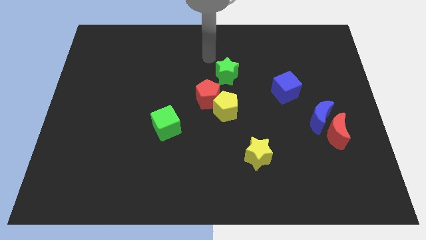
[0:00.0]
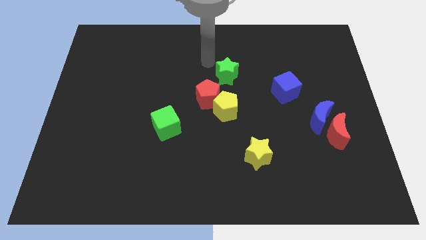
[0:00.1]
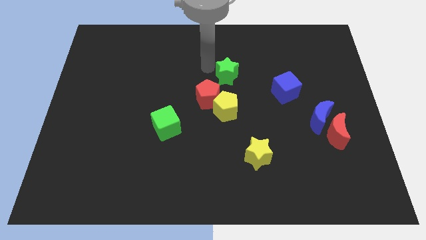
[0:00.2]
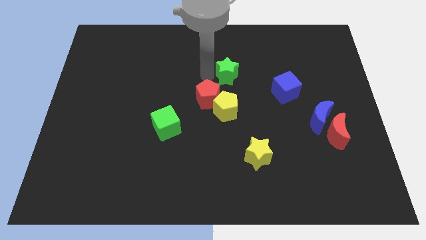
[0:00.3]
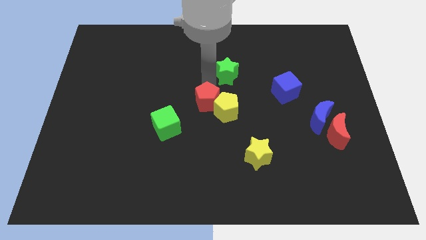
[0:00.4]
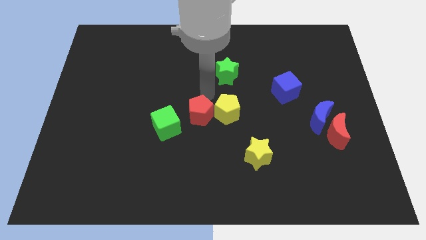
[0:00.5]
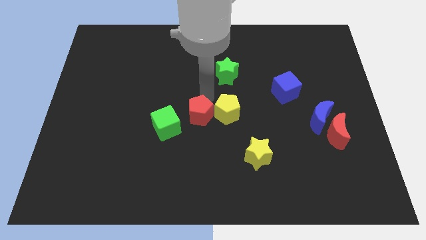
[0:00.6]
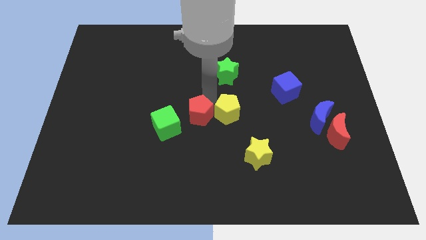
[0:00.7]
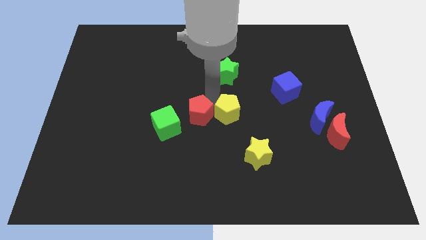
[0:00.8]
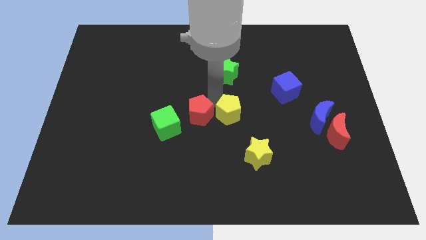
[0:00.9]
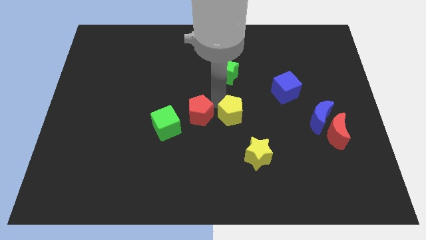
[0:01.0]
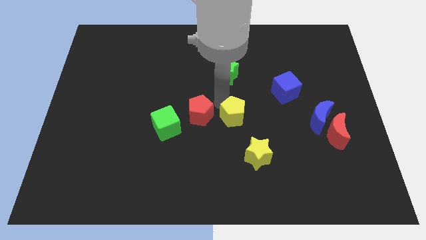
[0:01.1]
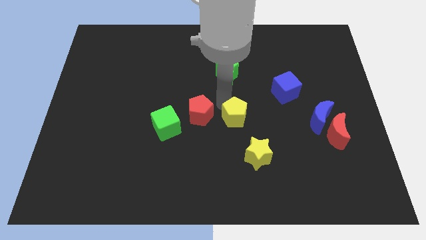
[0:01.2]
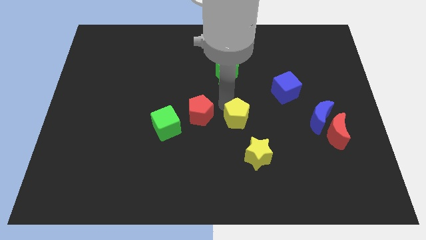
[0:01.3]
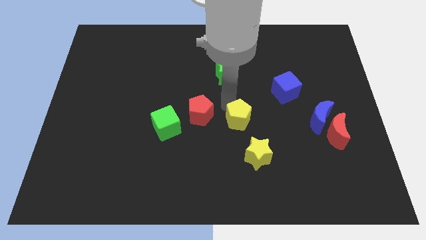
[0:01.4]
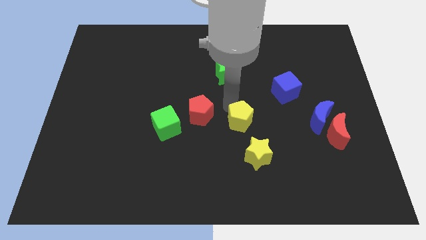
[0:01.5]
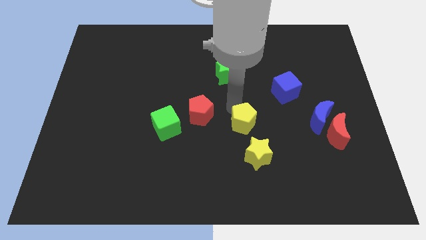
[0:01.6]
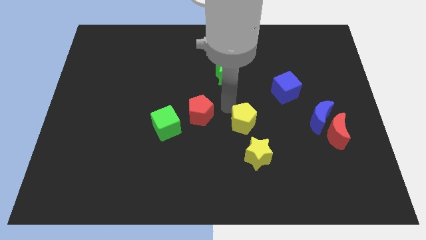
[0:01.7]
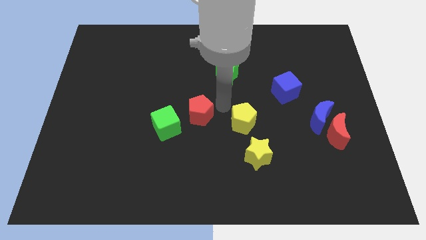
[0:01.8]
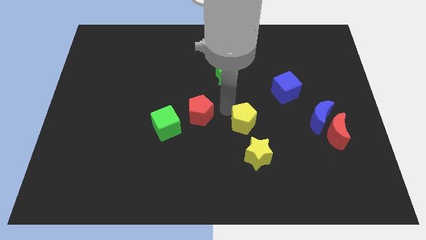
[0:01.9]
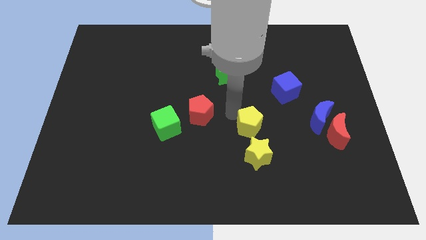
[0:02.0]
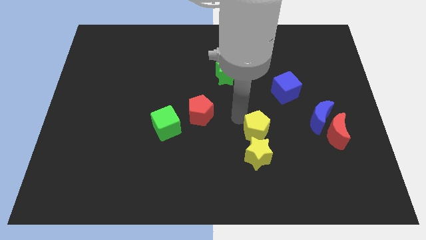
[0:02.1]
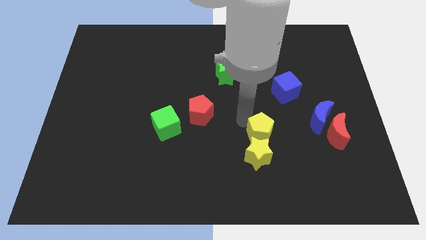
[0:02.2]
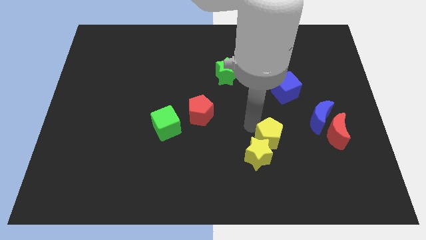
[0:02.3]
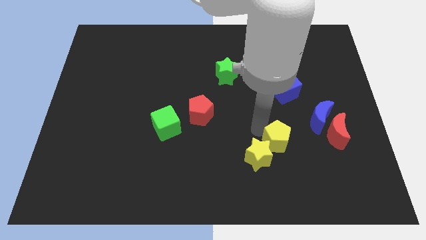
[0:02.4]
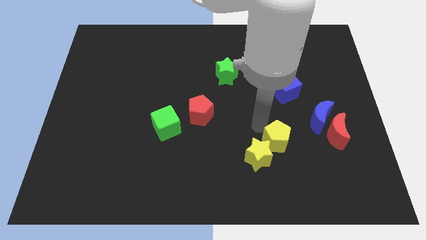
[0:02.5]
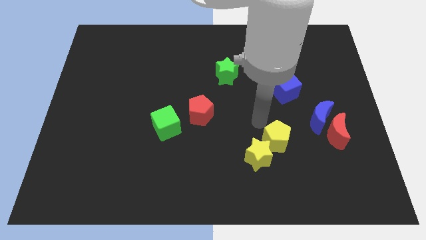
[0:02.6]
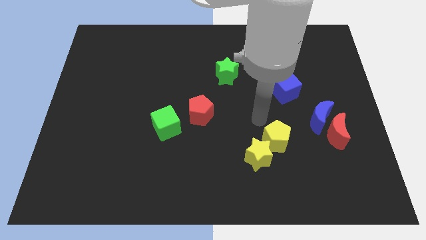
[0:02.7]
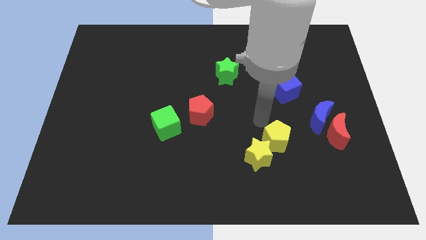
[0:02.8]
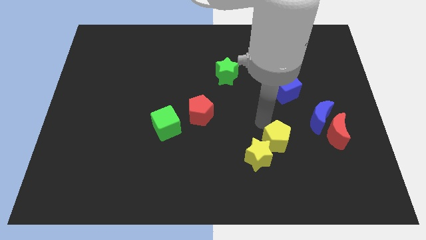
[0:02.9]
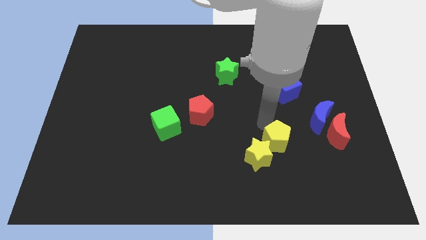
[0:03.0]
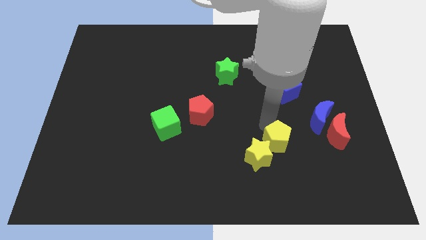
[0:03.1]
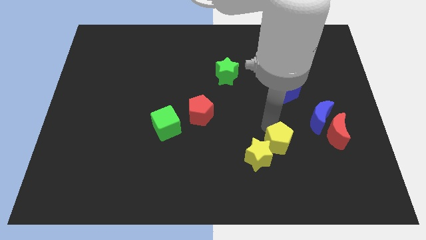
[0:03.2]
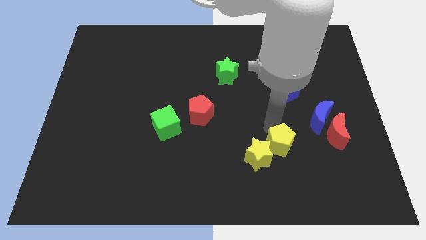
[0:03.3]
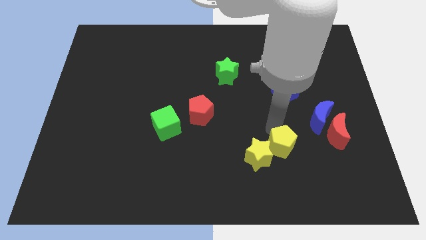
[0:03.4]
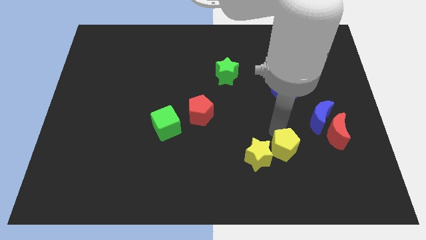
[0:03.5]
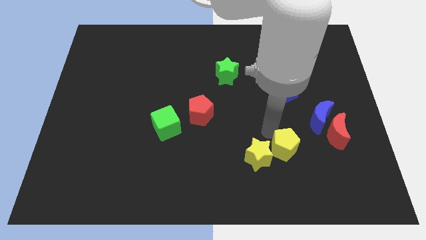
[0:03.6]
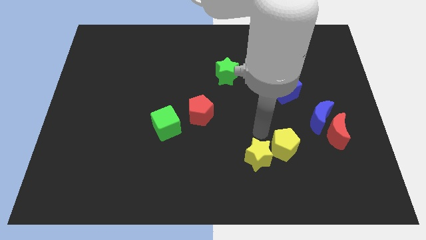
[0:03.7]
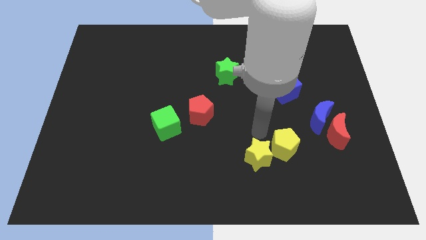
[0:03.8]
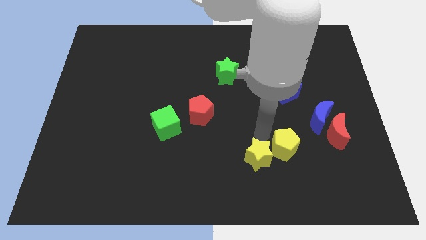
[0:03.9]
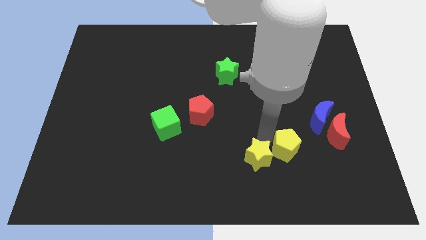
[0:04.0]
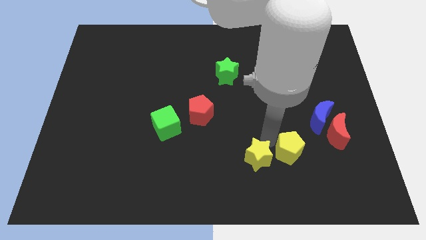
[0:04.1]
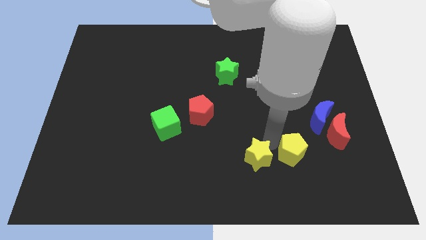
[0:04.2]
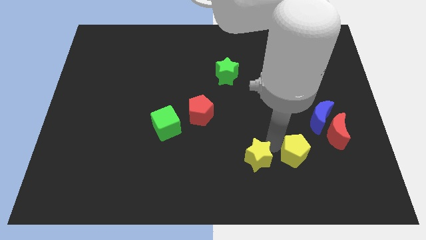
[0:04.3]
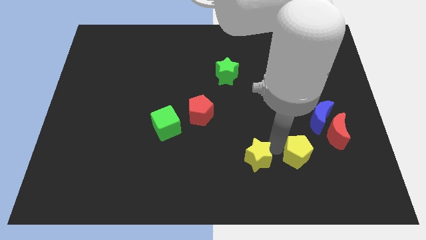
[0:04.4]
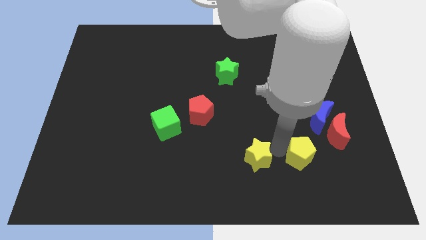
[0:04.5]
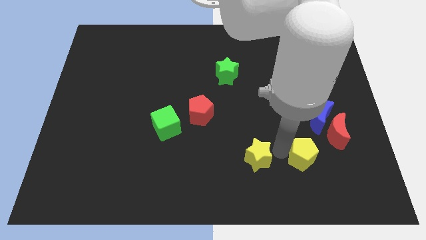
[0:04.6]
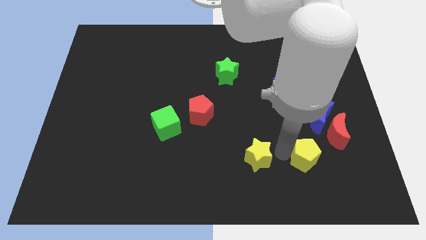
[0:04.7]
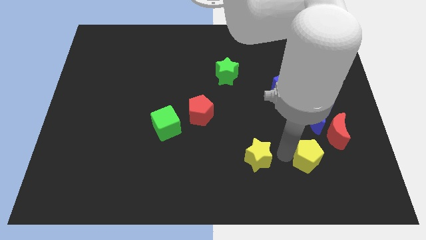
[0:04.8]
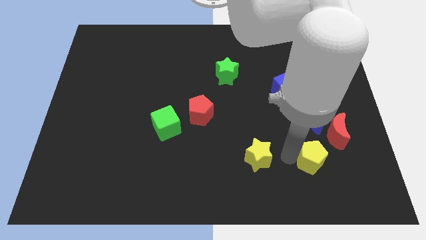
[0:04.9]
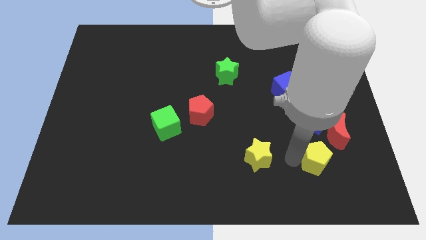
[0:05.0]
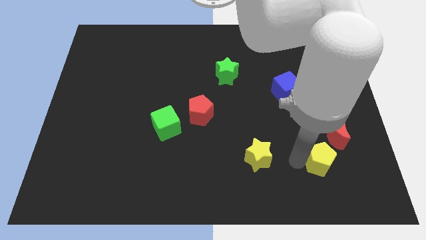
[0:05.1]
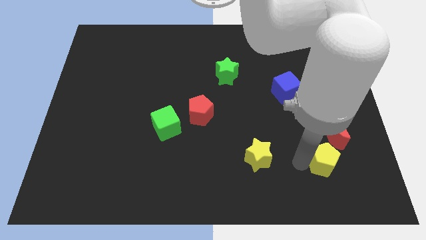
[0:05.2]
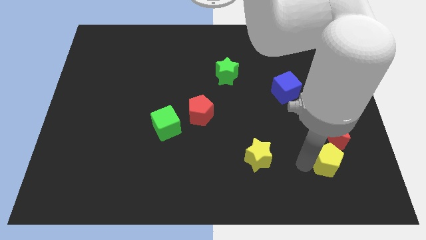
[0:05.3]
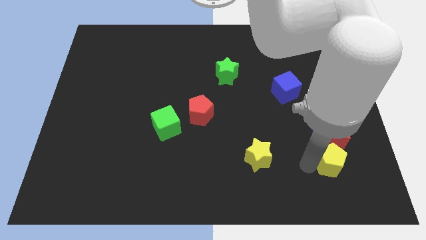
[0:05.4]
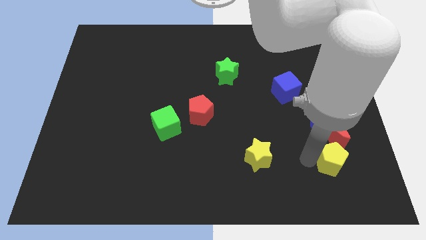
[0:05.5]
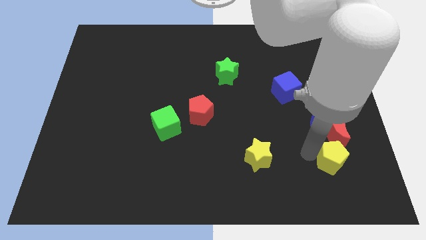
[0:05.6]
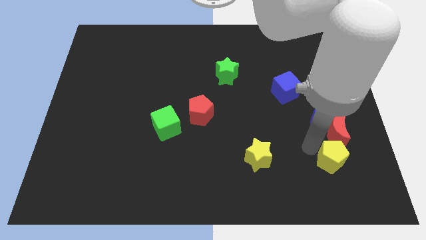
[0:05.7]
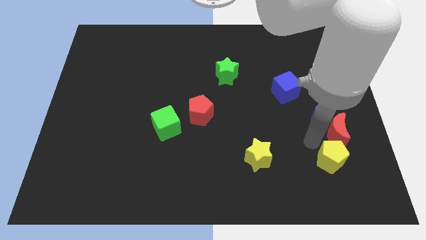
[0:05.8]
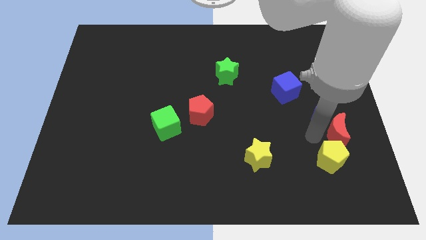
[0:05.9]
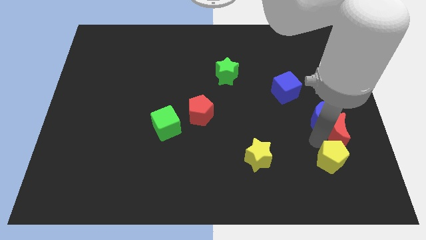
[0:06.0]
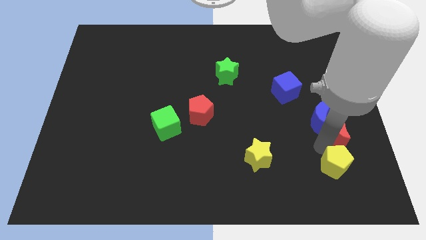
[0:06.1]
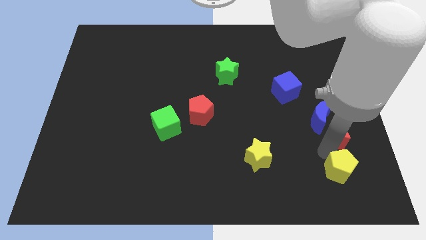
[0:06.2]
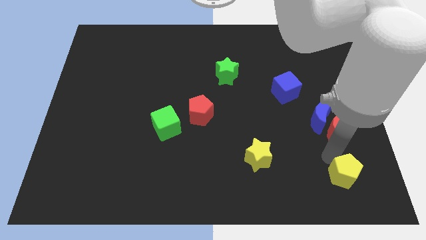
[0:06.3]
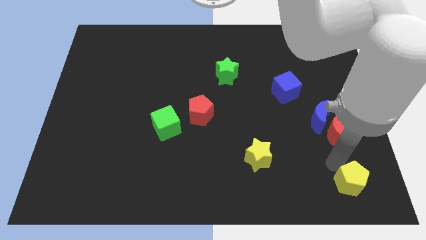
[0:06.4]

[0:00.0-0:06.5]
put the yellow pentagon to the bottom right corner

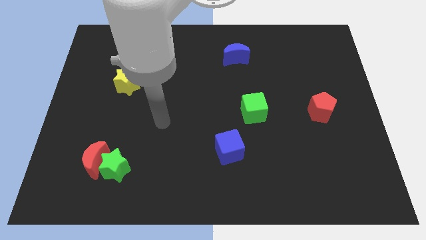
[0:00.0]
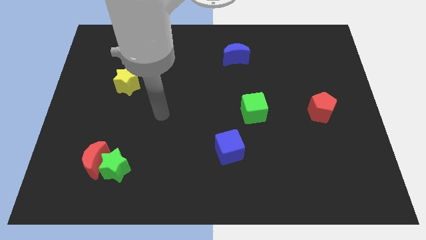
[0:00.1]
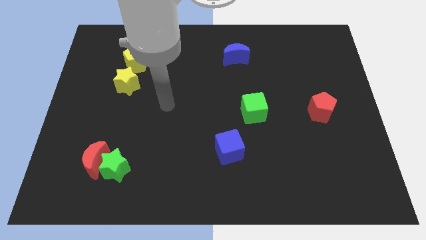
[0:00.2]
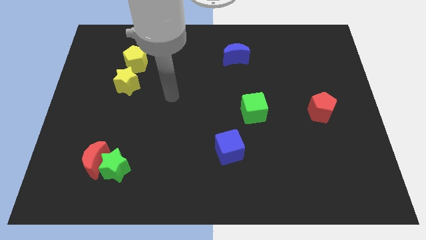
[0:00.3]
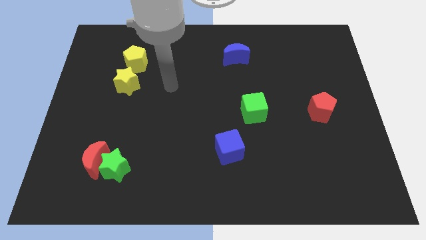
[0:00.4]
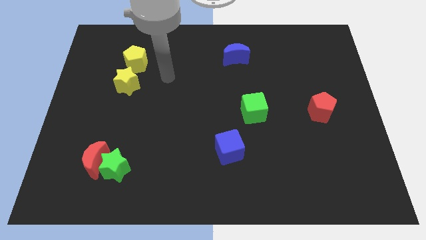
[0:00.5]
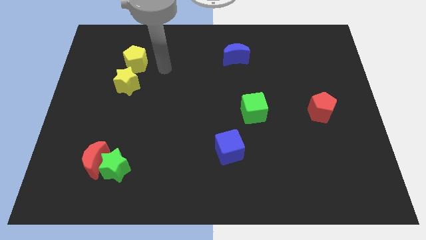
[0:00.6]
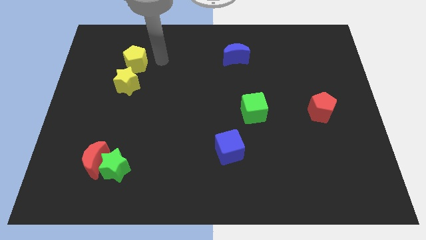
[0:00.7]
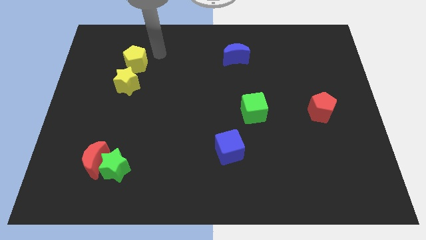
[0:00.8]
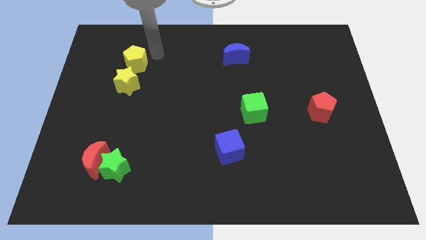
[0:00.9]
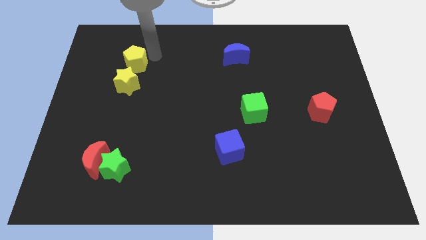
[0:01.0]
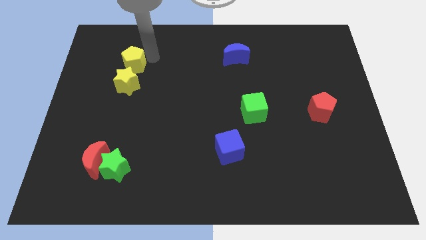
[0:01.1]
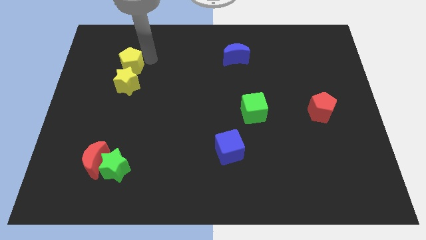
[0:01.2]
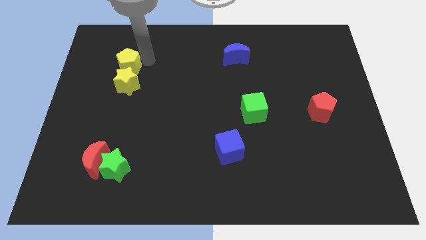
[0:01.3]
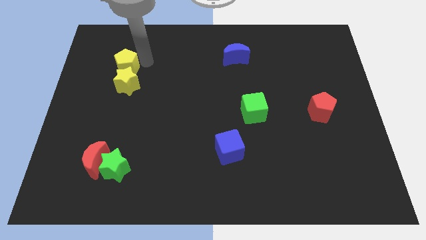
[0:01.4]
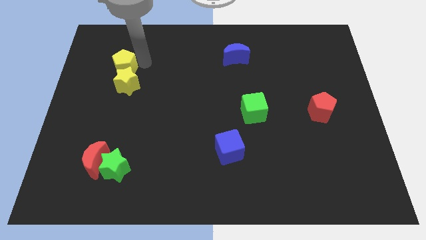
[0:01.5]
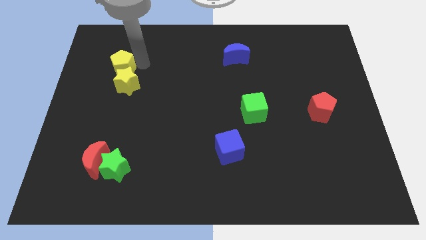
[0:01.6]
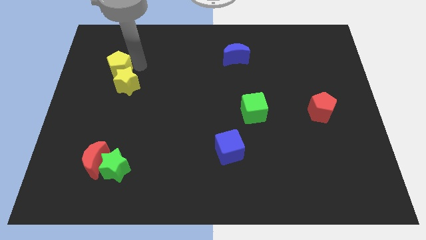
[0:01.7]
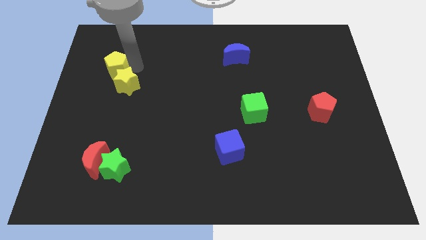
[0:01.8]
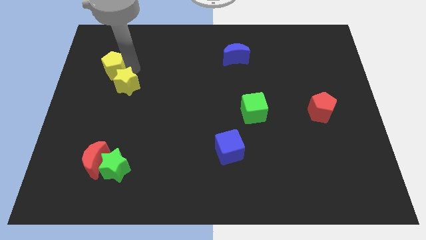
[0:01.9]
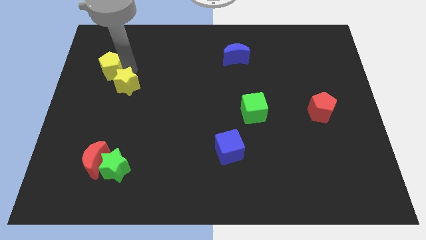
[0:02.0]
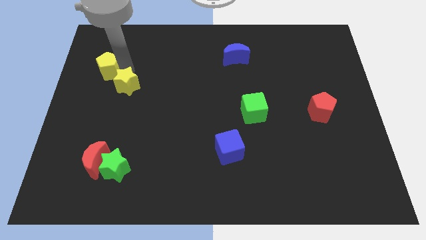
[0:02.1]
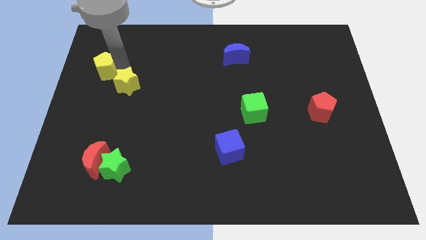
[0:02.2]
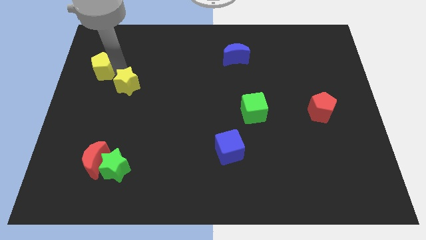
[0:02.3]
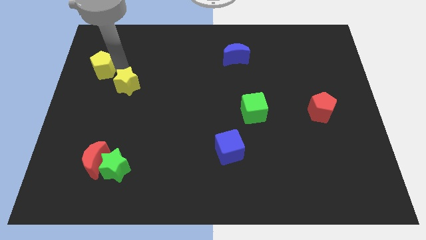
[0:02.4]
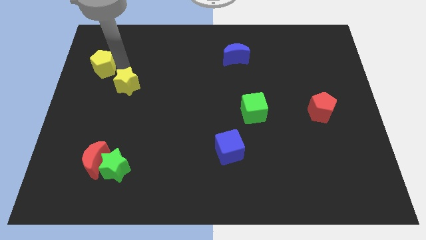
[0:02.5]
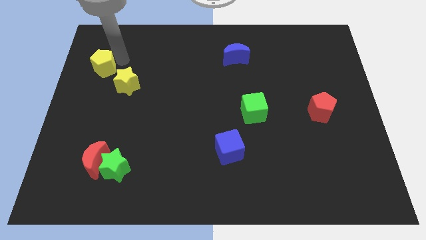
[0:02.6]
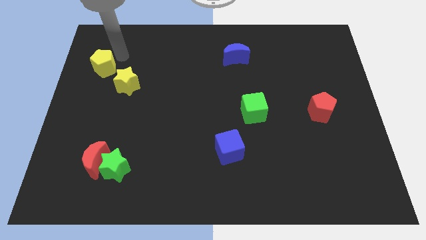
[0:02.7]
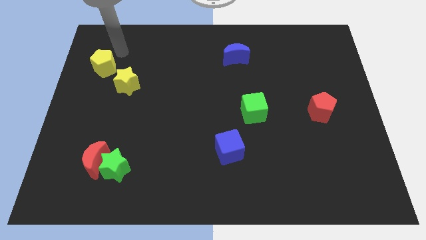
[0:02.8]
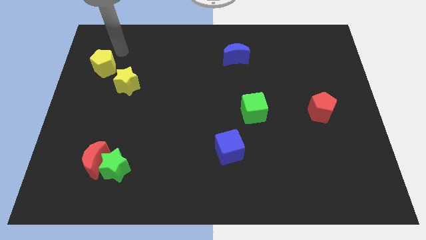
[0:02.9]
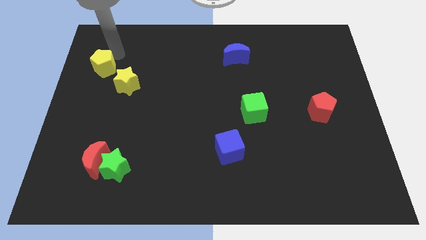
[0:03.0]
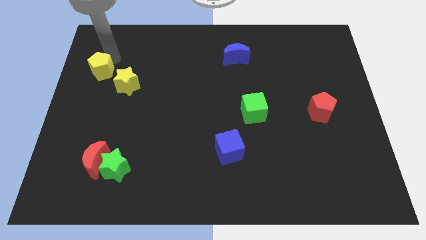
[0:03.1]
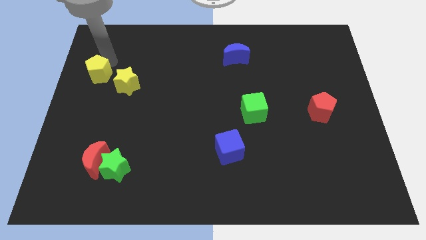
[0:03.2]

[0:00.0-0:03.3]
push the yellow pentagon to the left side
